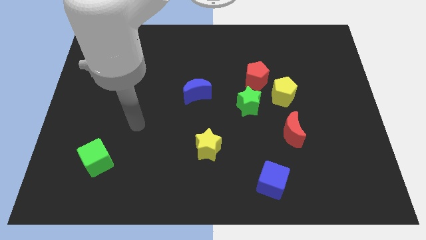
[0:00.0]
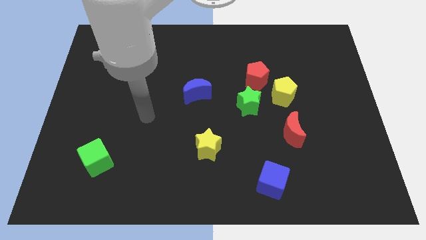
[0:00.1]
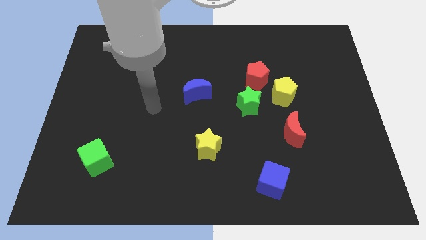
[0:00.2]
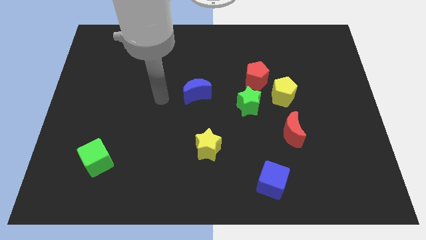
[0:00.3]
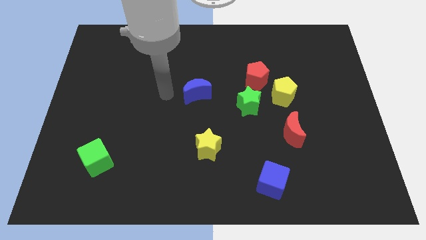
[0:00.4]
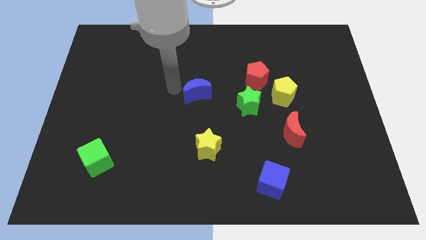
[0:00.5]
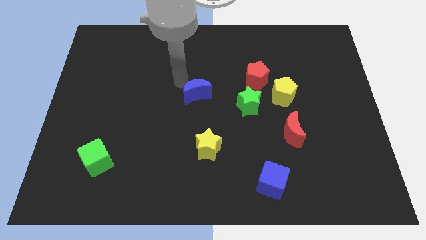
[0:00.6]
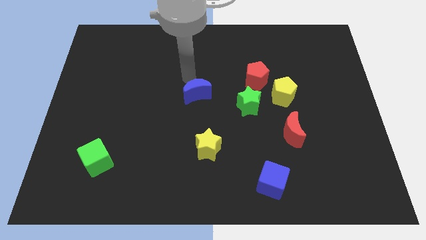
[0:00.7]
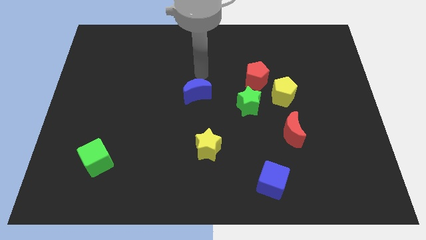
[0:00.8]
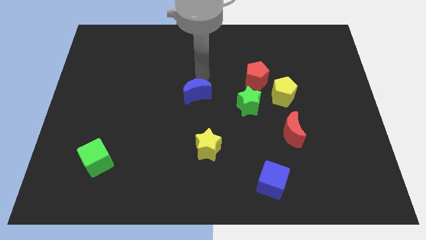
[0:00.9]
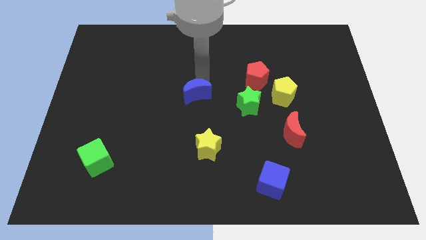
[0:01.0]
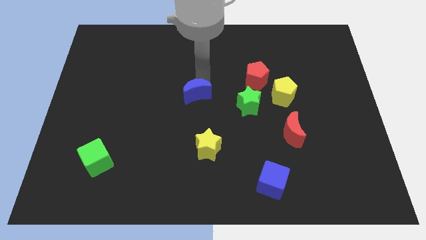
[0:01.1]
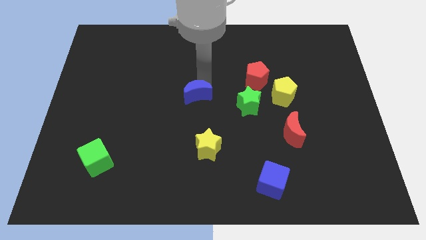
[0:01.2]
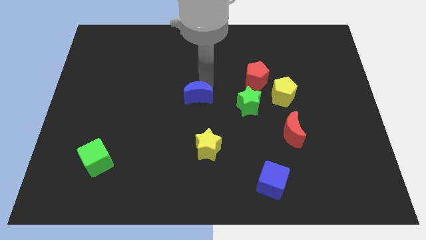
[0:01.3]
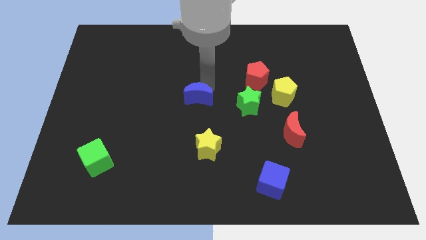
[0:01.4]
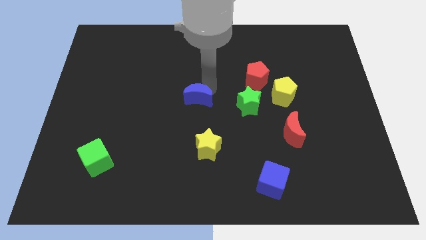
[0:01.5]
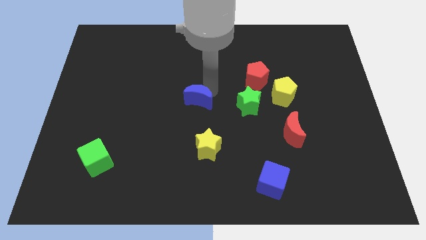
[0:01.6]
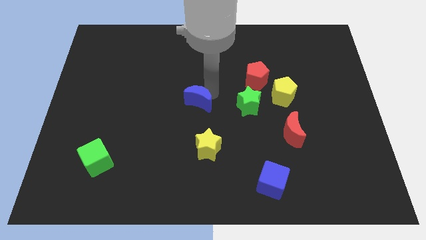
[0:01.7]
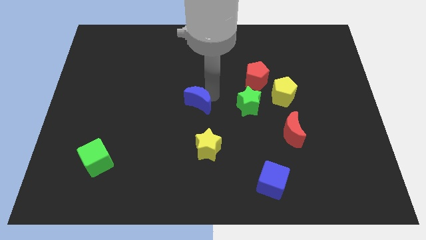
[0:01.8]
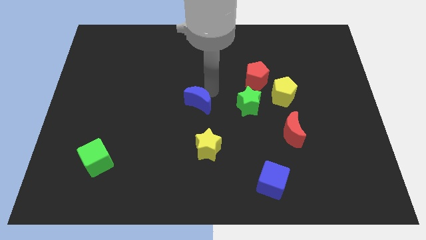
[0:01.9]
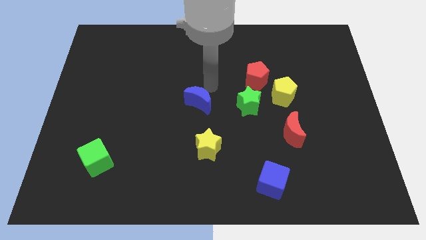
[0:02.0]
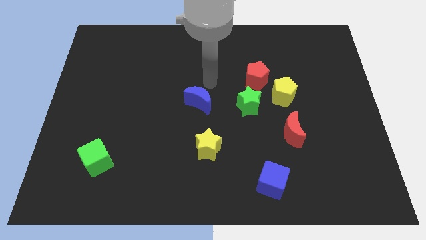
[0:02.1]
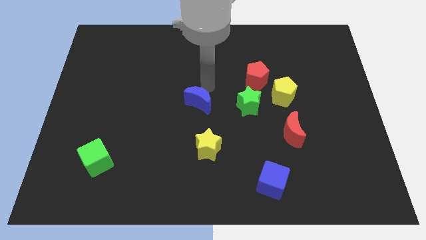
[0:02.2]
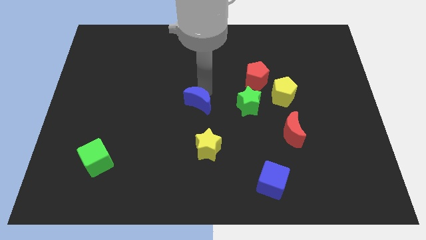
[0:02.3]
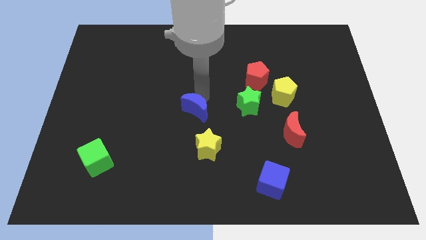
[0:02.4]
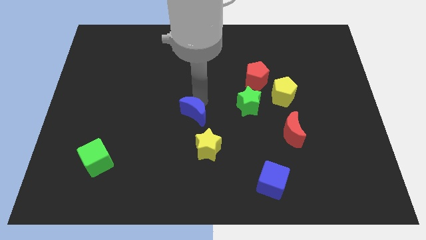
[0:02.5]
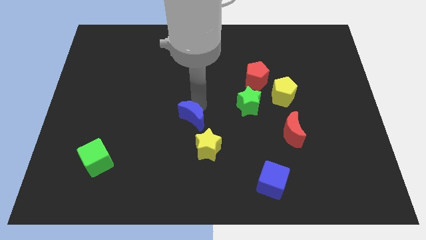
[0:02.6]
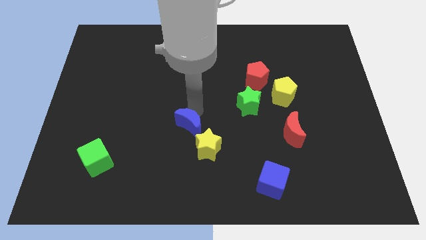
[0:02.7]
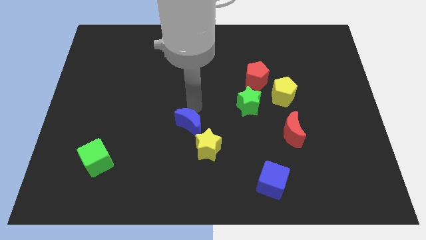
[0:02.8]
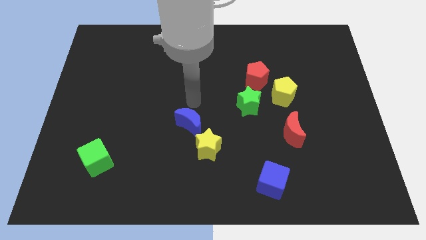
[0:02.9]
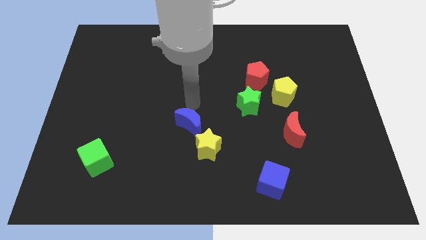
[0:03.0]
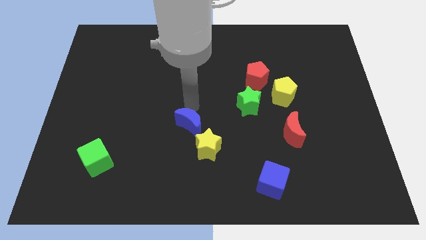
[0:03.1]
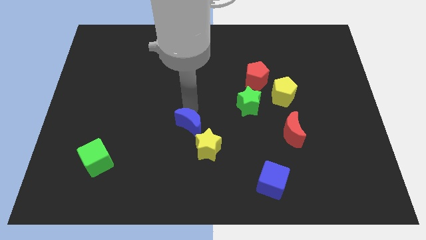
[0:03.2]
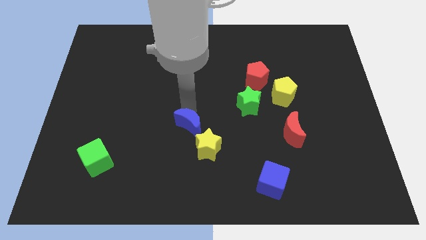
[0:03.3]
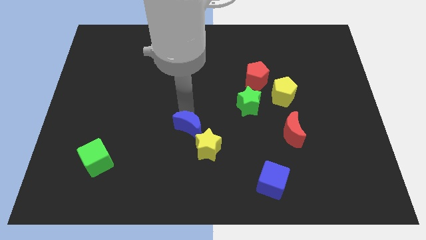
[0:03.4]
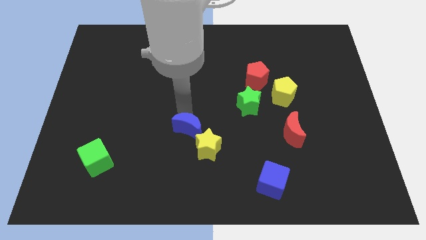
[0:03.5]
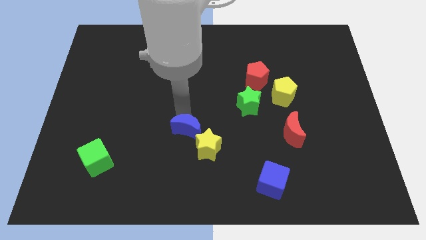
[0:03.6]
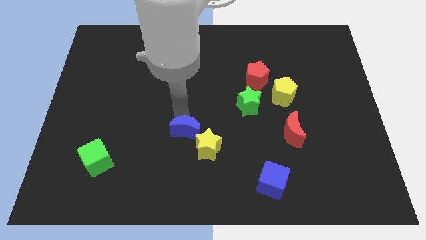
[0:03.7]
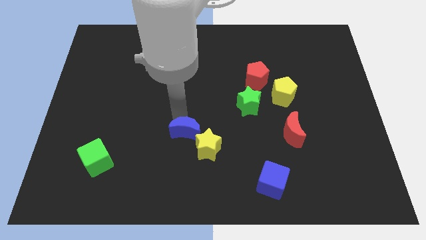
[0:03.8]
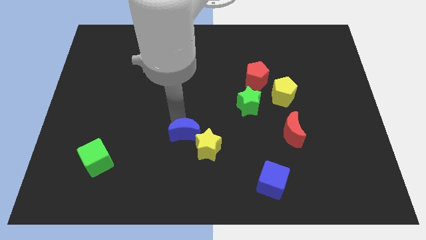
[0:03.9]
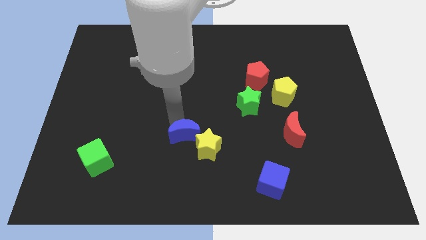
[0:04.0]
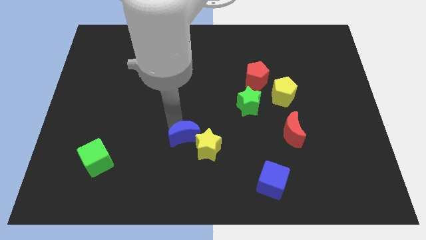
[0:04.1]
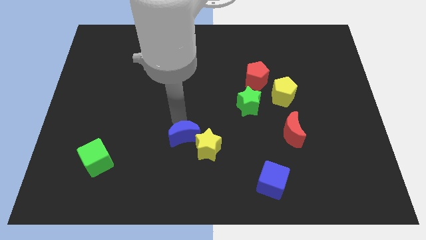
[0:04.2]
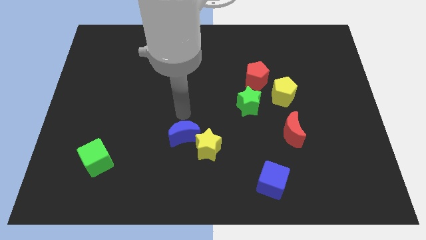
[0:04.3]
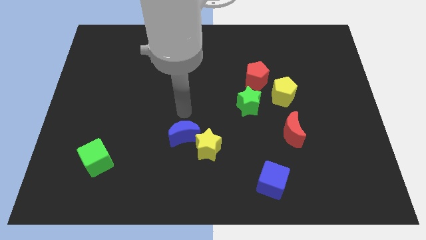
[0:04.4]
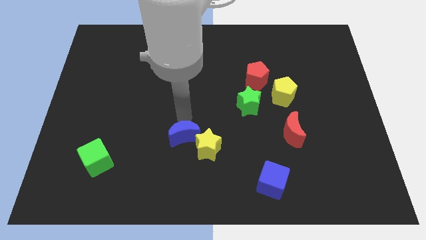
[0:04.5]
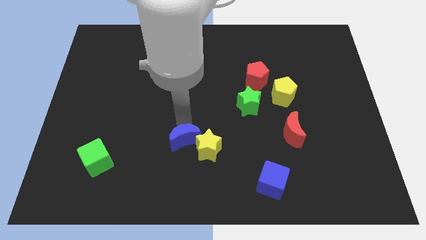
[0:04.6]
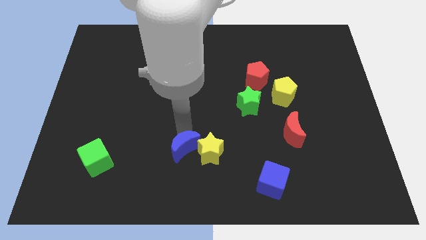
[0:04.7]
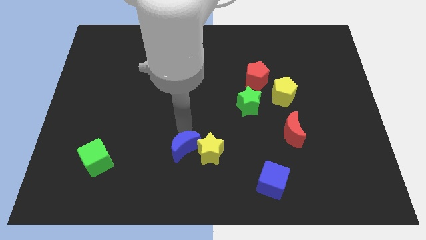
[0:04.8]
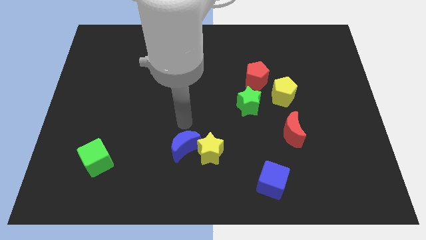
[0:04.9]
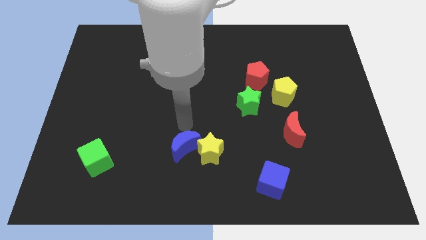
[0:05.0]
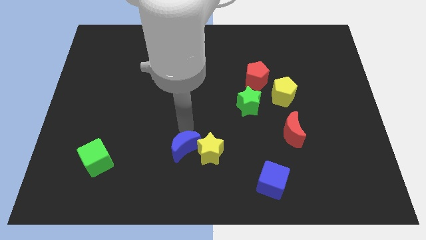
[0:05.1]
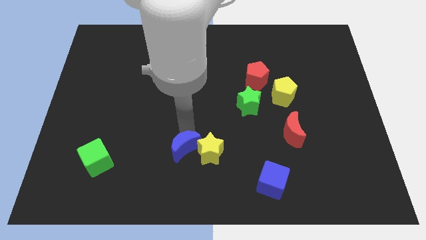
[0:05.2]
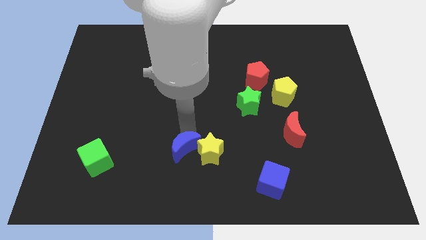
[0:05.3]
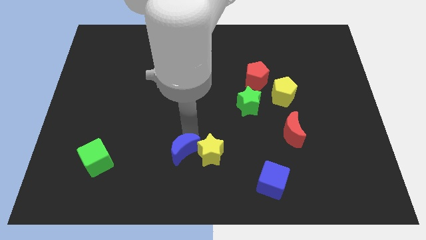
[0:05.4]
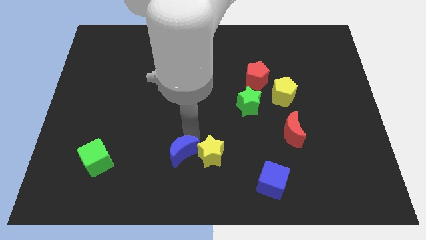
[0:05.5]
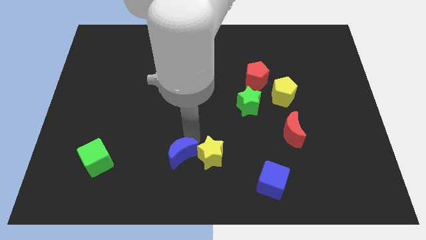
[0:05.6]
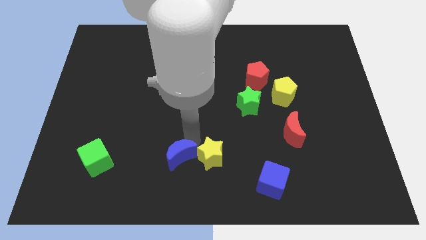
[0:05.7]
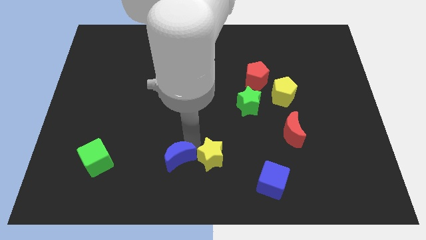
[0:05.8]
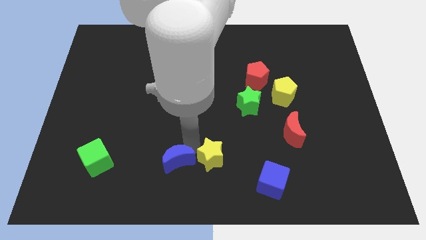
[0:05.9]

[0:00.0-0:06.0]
put the blue moon to the bottom side

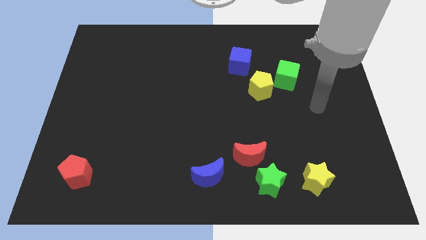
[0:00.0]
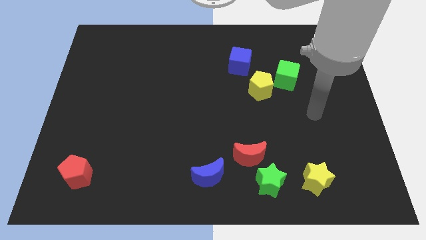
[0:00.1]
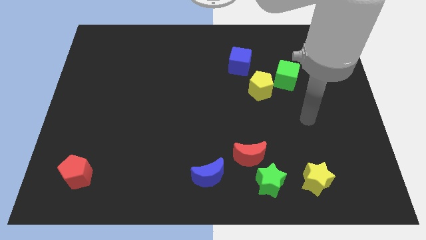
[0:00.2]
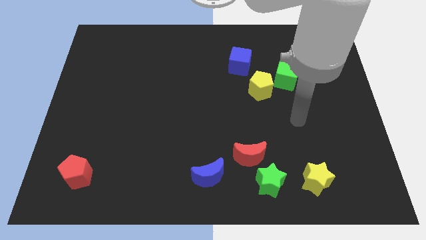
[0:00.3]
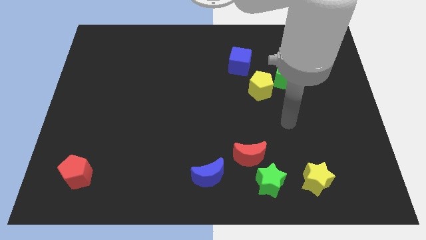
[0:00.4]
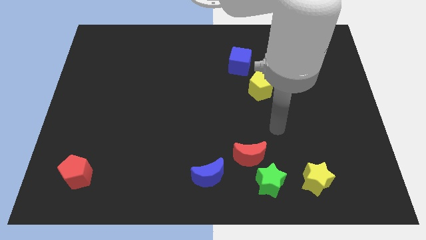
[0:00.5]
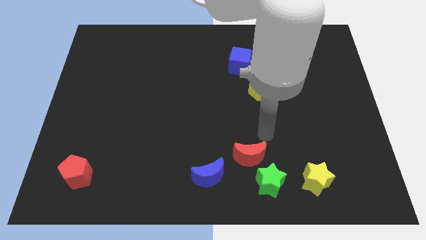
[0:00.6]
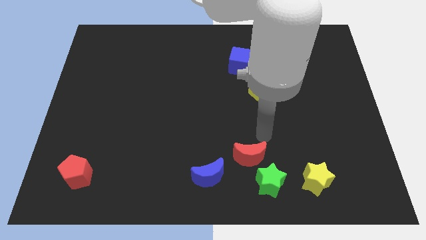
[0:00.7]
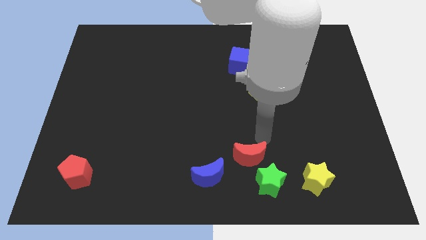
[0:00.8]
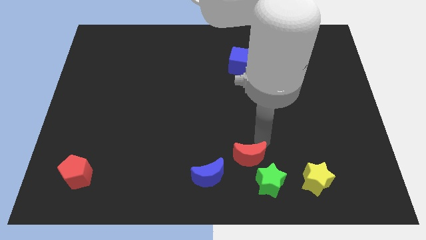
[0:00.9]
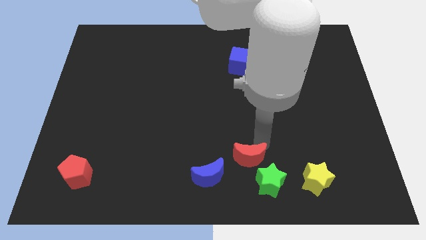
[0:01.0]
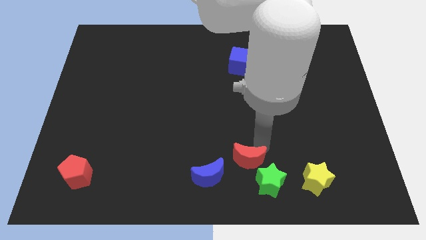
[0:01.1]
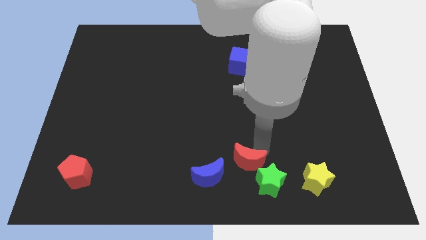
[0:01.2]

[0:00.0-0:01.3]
slide the red moon to the bottom
